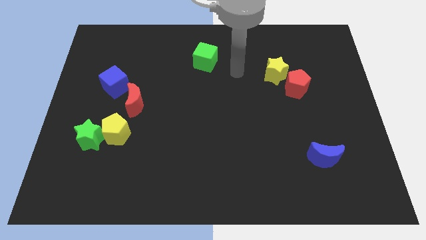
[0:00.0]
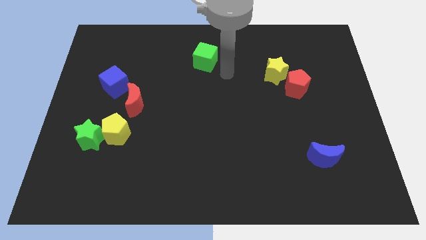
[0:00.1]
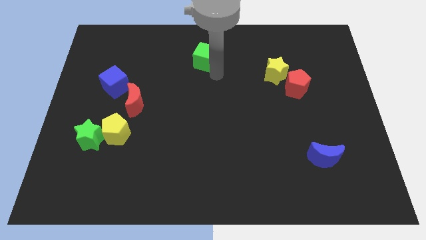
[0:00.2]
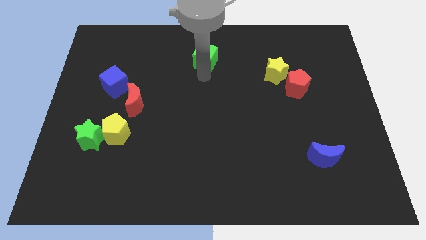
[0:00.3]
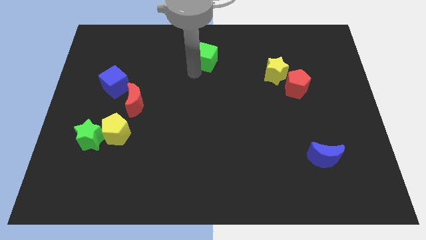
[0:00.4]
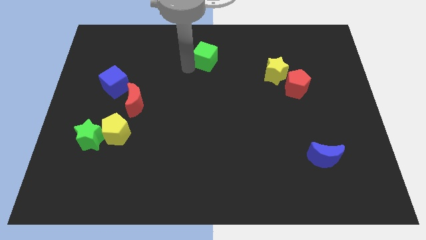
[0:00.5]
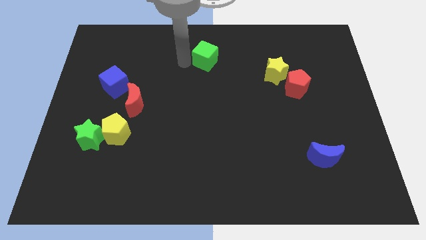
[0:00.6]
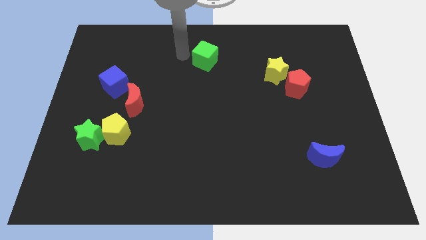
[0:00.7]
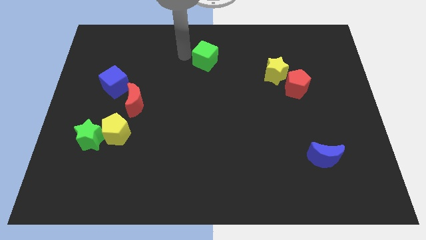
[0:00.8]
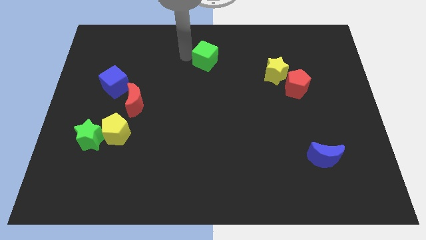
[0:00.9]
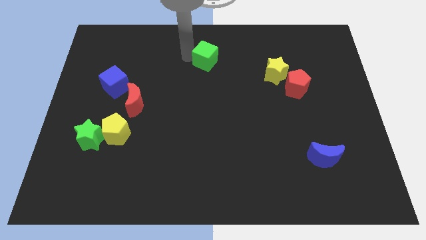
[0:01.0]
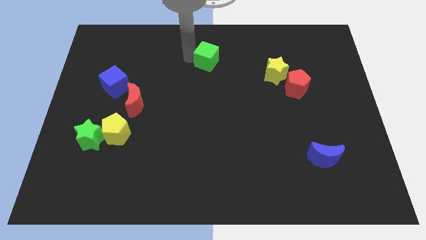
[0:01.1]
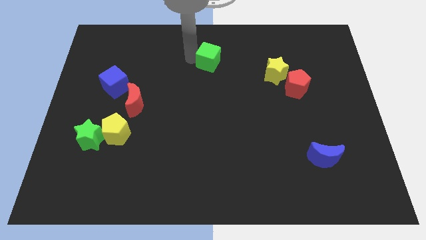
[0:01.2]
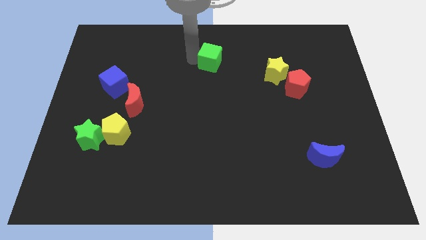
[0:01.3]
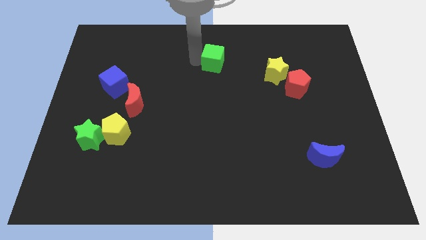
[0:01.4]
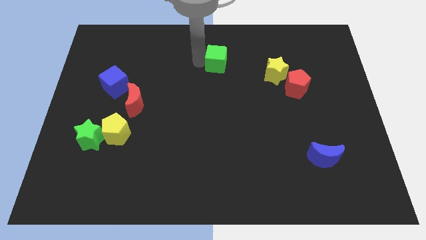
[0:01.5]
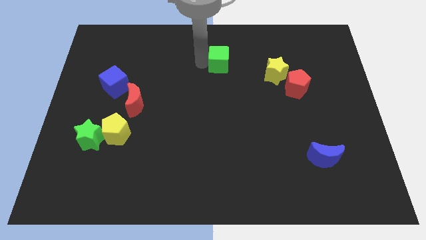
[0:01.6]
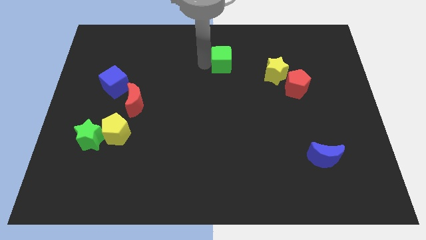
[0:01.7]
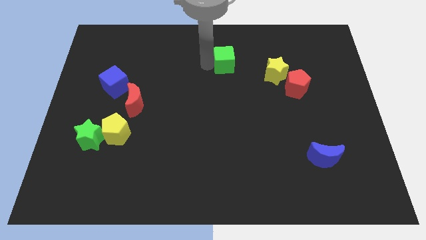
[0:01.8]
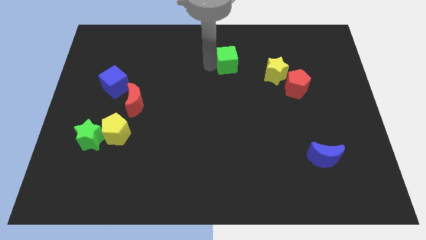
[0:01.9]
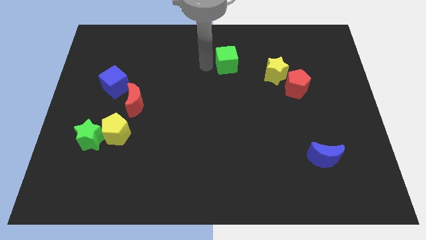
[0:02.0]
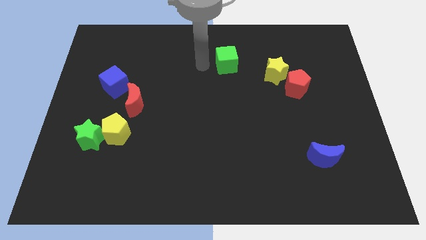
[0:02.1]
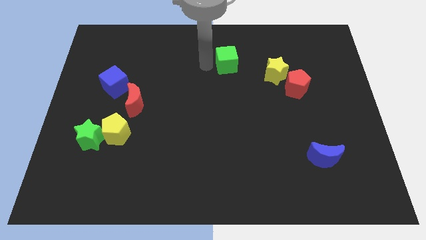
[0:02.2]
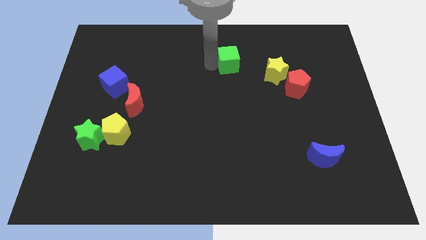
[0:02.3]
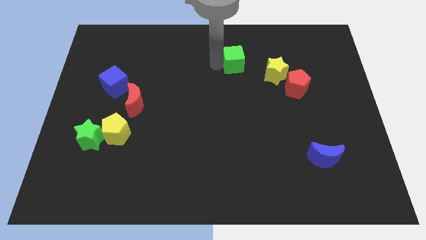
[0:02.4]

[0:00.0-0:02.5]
move the green cube a little right

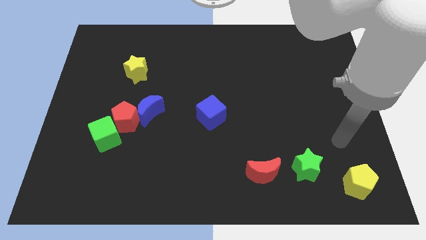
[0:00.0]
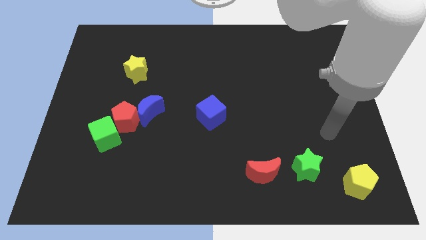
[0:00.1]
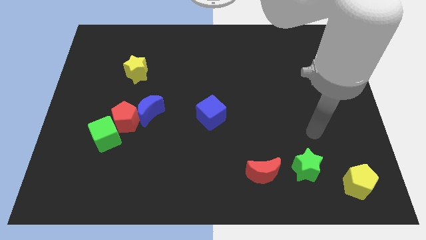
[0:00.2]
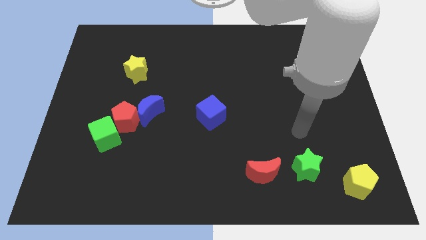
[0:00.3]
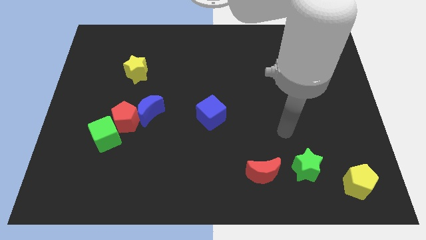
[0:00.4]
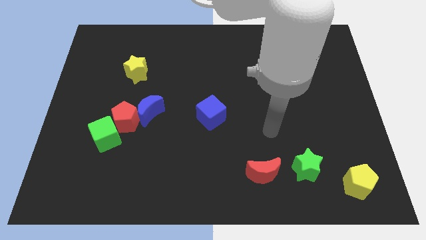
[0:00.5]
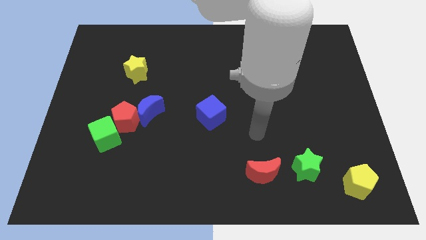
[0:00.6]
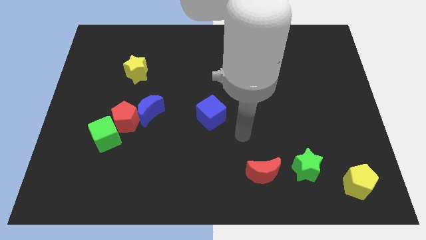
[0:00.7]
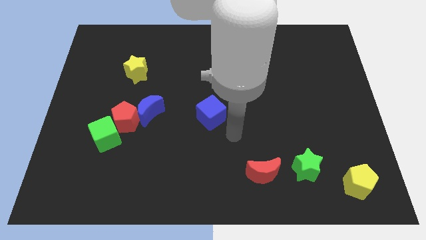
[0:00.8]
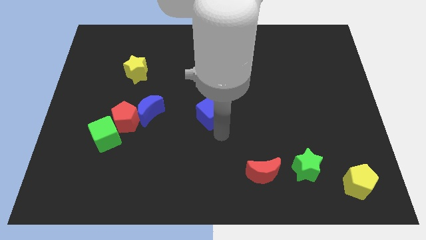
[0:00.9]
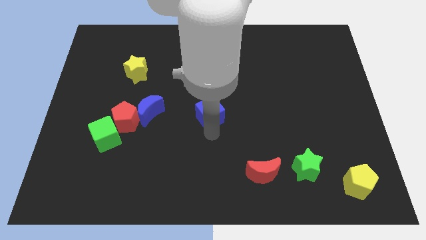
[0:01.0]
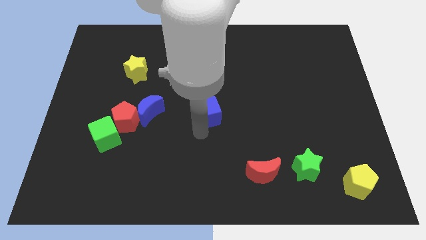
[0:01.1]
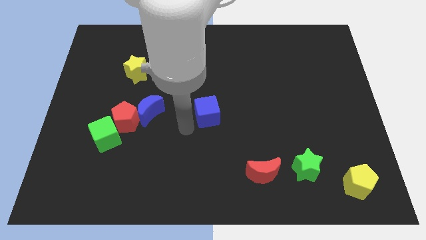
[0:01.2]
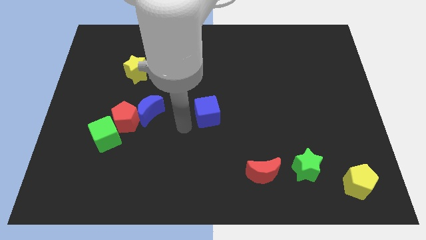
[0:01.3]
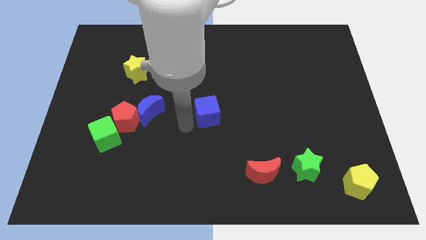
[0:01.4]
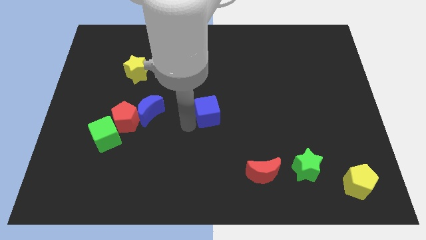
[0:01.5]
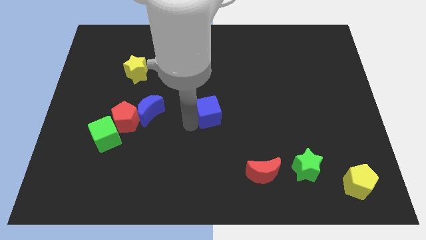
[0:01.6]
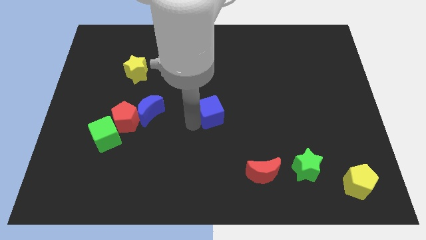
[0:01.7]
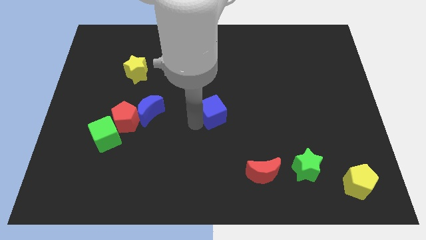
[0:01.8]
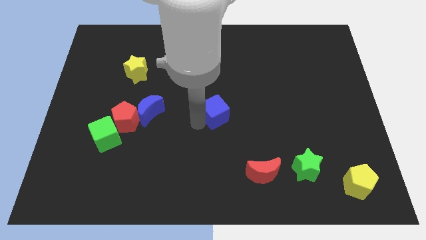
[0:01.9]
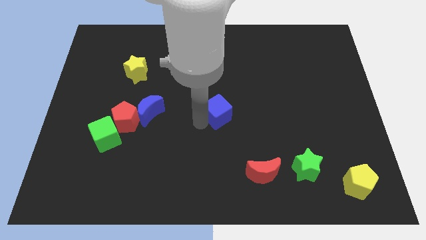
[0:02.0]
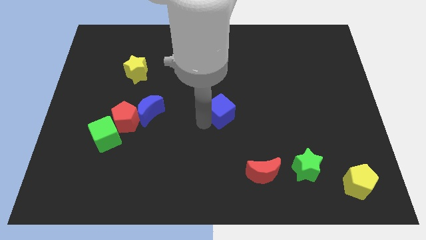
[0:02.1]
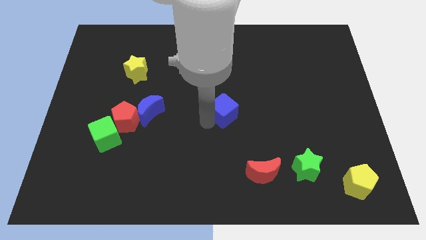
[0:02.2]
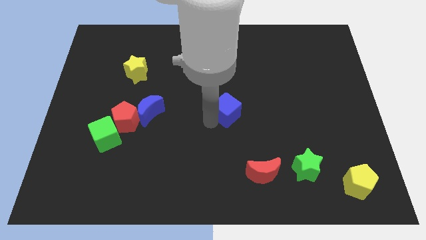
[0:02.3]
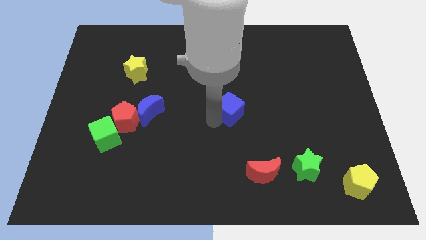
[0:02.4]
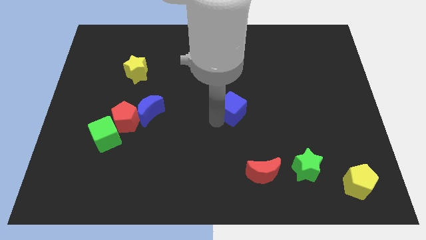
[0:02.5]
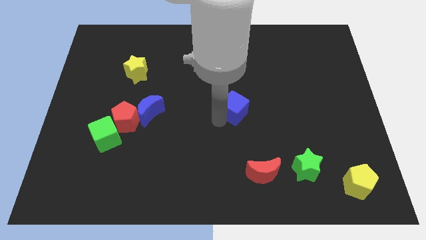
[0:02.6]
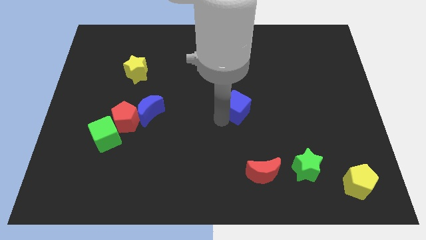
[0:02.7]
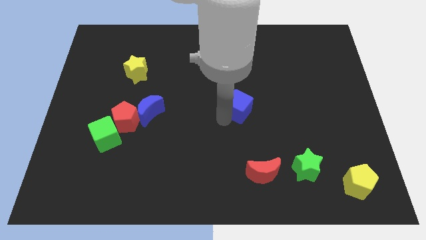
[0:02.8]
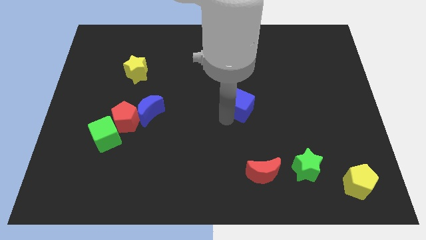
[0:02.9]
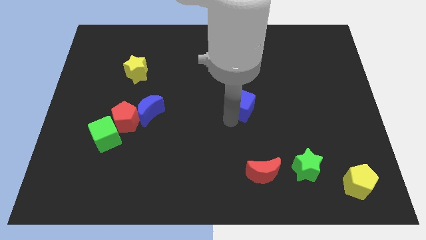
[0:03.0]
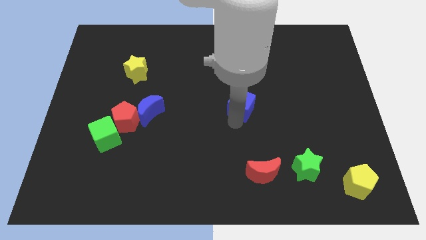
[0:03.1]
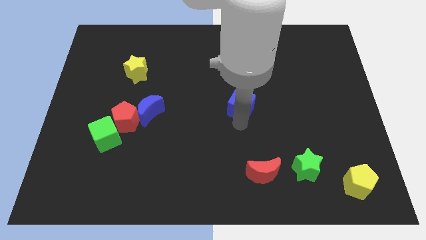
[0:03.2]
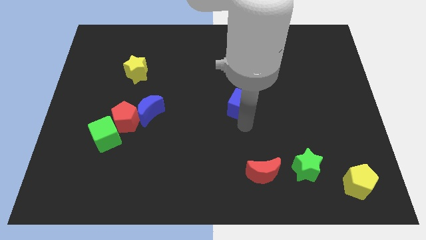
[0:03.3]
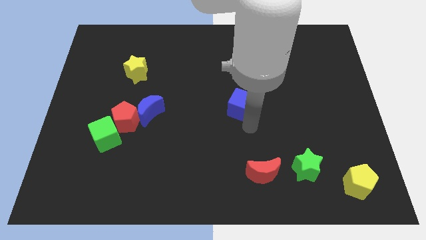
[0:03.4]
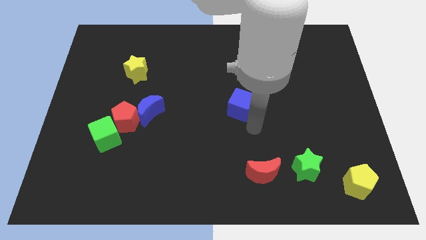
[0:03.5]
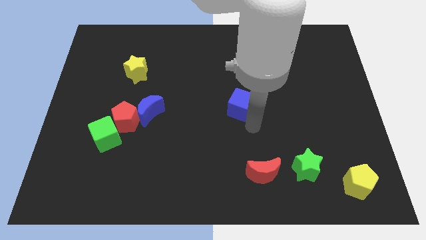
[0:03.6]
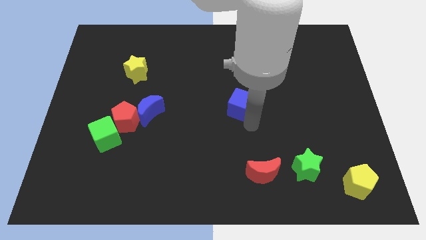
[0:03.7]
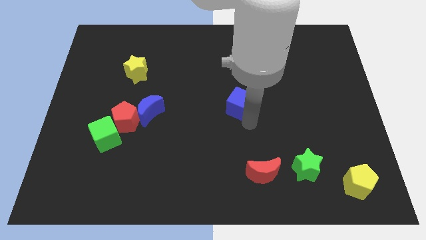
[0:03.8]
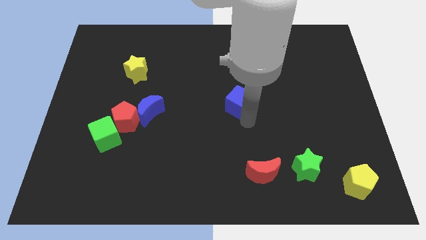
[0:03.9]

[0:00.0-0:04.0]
slide the blue cube diagonally upwards and right slightly

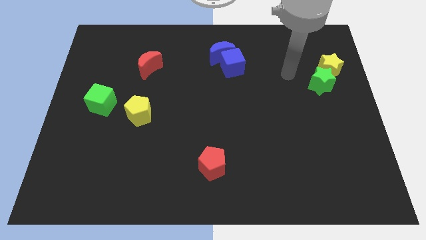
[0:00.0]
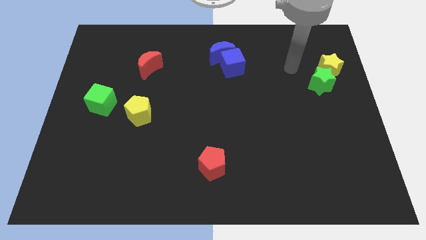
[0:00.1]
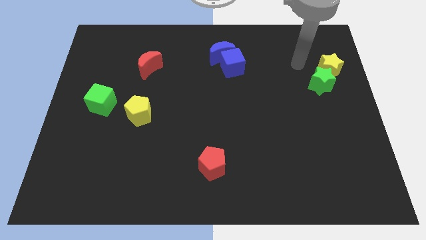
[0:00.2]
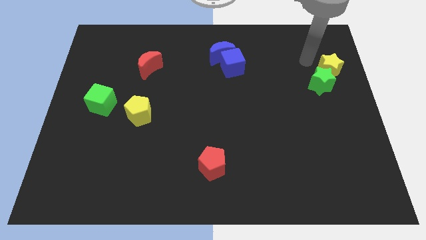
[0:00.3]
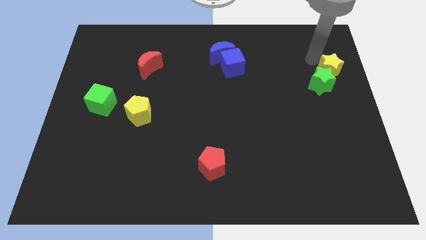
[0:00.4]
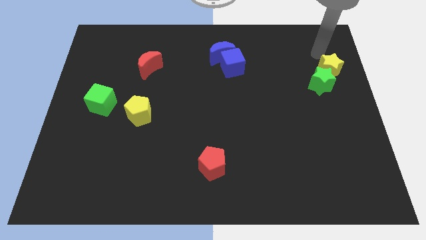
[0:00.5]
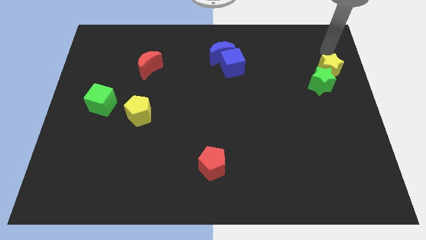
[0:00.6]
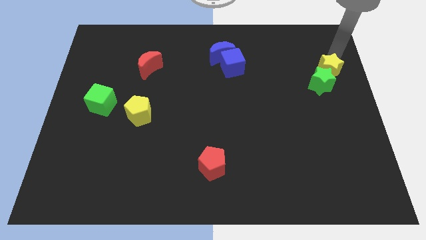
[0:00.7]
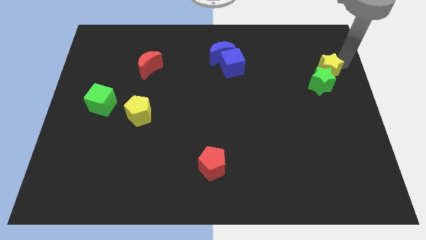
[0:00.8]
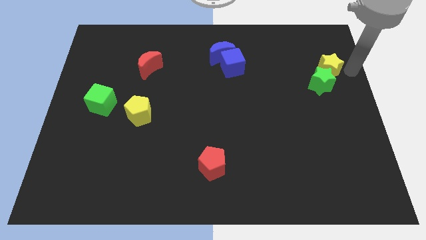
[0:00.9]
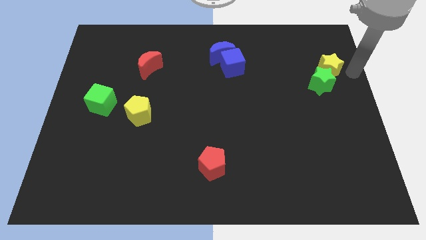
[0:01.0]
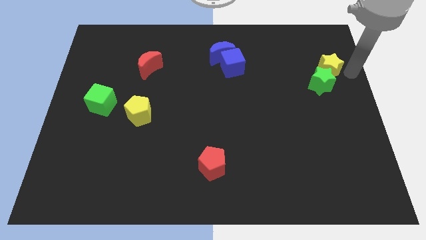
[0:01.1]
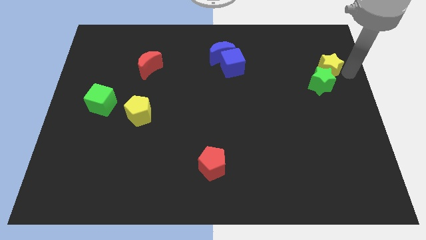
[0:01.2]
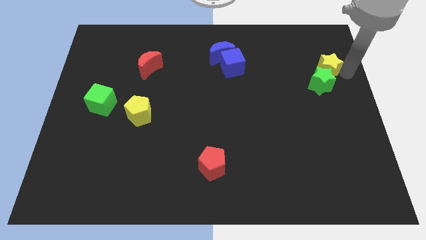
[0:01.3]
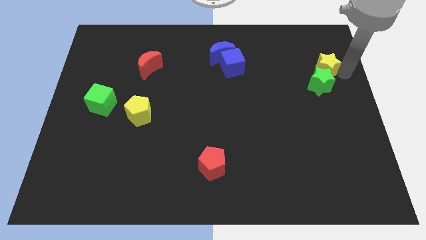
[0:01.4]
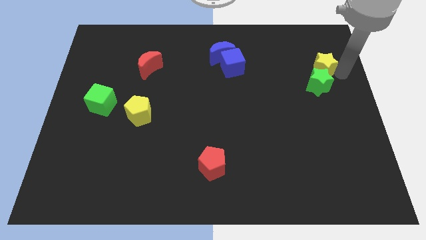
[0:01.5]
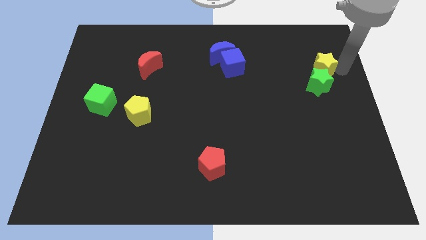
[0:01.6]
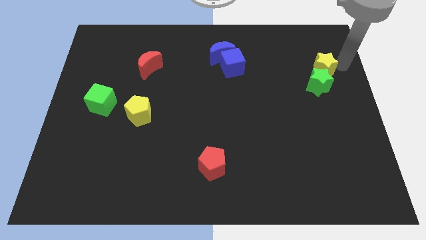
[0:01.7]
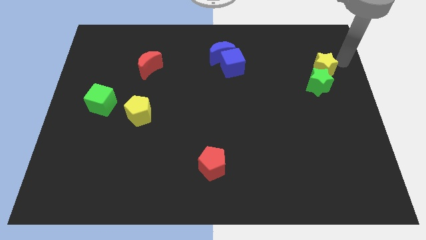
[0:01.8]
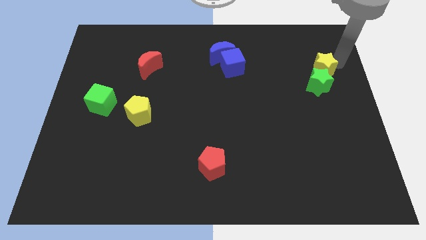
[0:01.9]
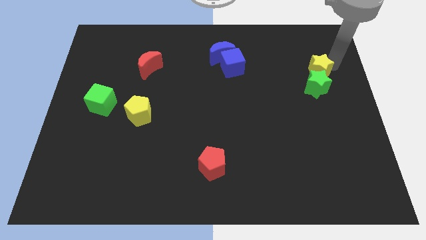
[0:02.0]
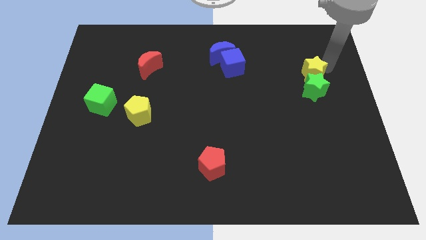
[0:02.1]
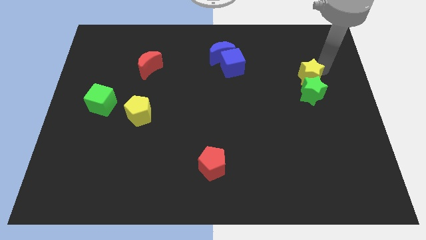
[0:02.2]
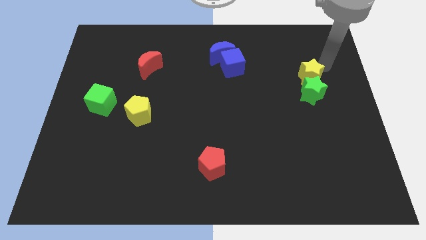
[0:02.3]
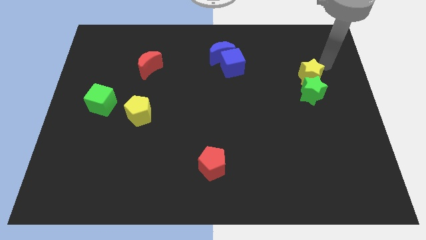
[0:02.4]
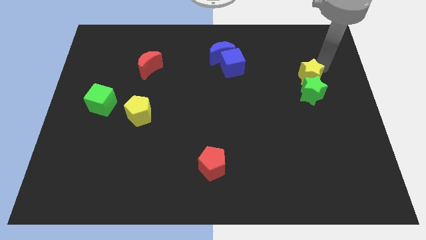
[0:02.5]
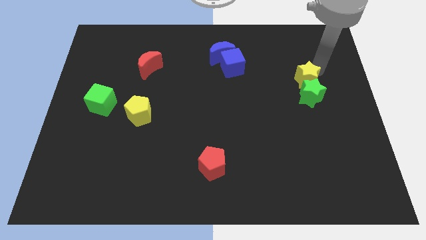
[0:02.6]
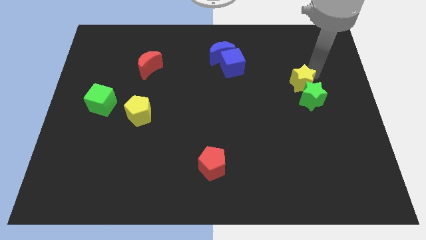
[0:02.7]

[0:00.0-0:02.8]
slide the yellow star diagonally down and left a little
